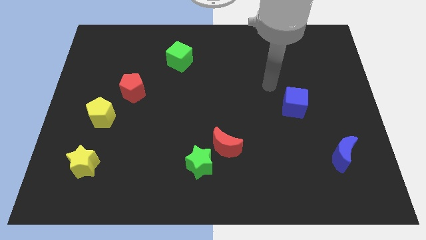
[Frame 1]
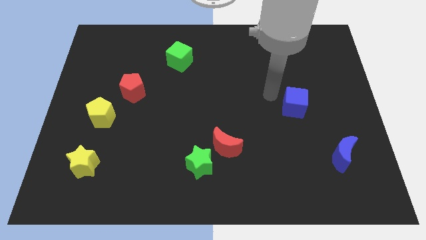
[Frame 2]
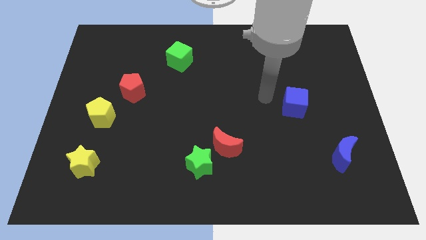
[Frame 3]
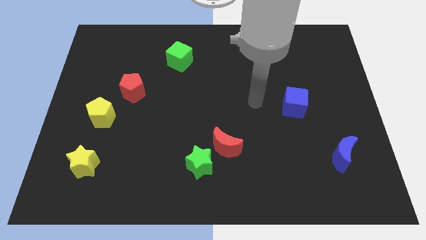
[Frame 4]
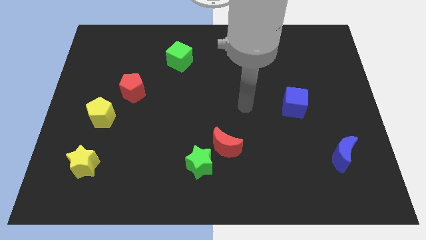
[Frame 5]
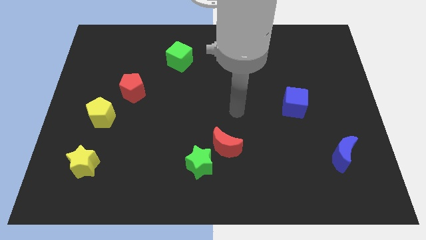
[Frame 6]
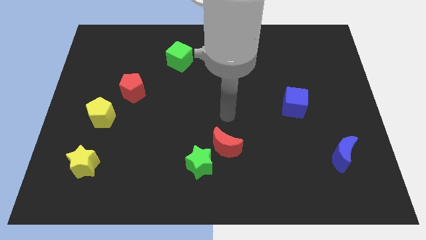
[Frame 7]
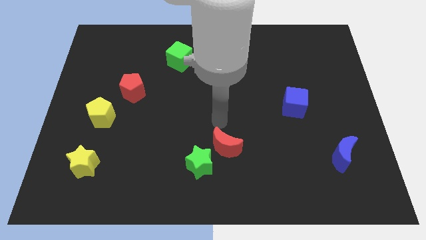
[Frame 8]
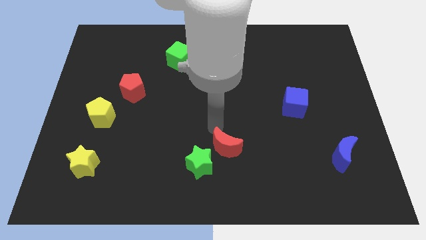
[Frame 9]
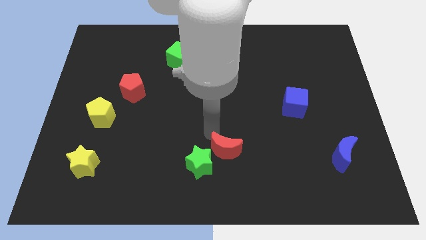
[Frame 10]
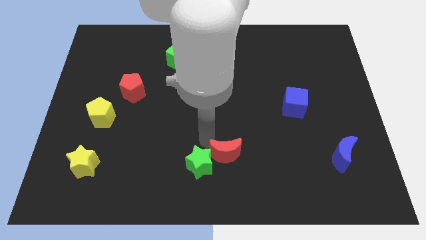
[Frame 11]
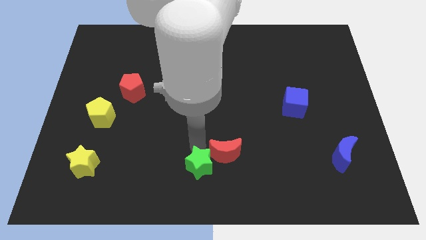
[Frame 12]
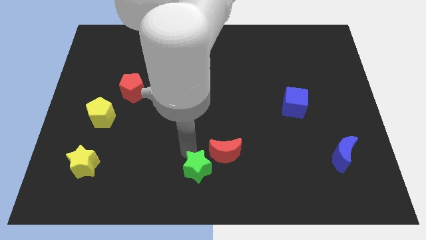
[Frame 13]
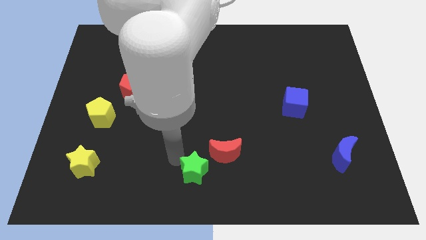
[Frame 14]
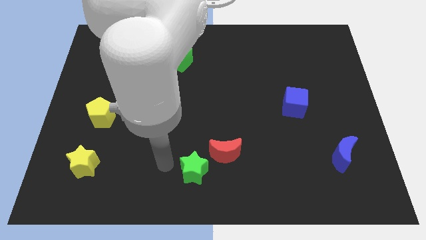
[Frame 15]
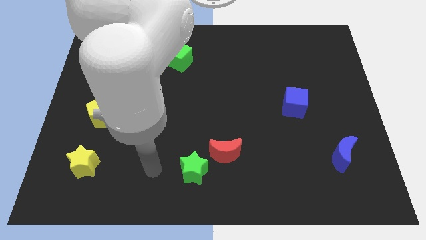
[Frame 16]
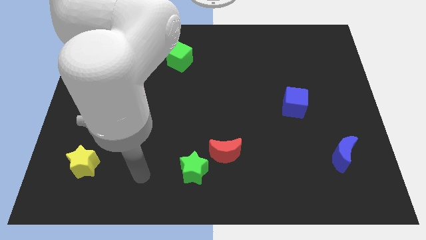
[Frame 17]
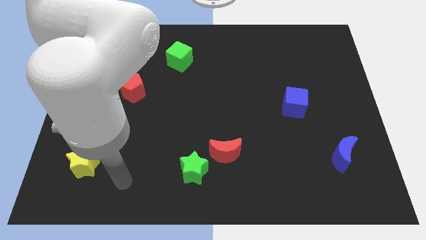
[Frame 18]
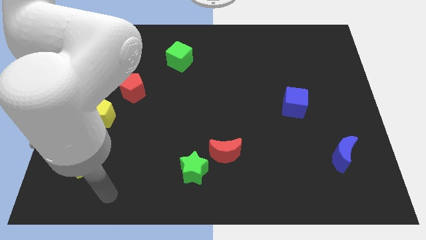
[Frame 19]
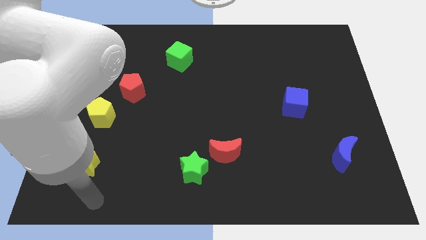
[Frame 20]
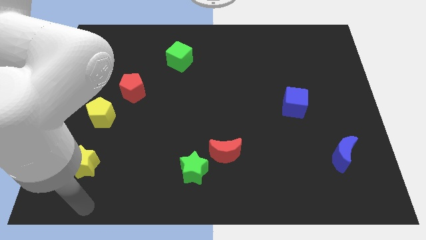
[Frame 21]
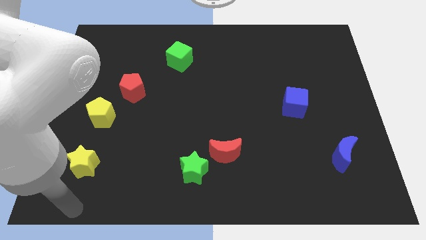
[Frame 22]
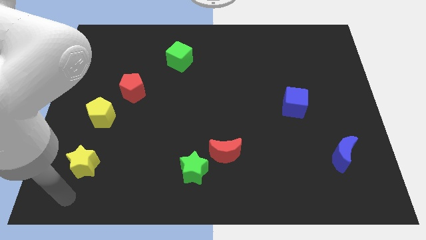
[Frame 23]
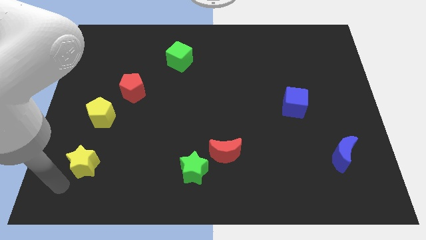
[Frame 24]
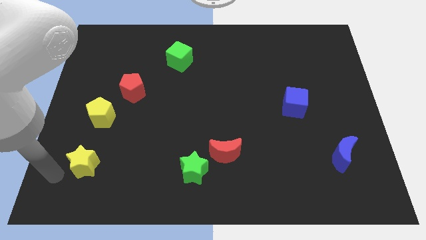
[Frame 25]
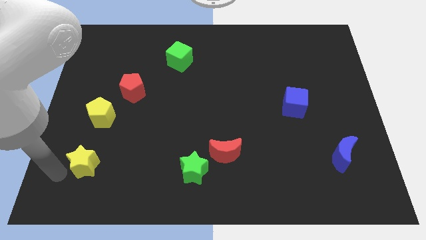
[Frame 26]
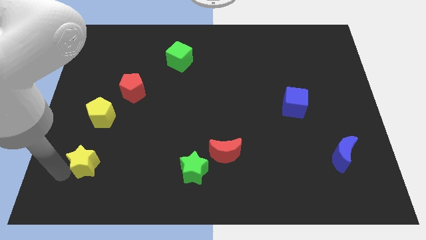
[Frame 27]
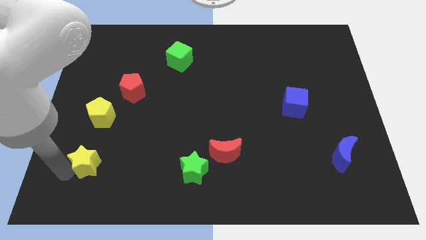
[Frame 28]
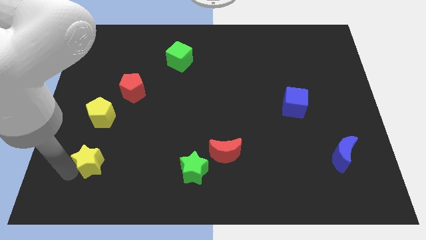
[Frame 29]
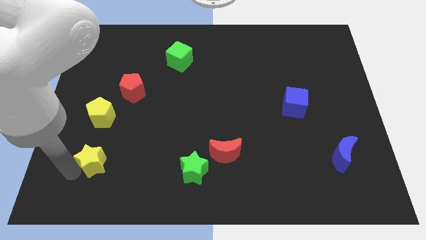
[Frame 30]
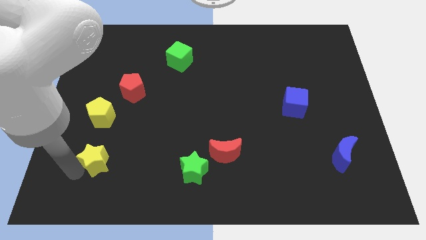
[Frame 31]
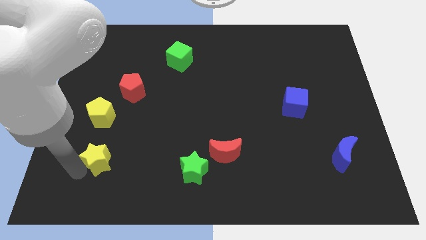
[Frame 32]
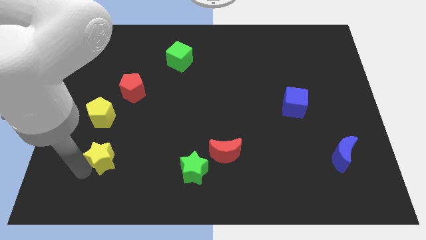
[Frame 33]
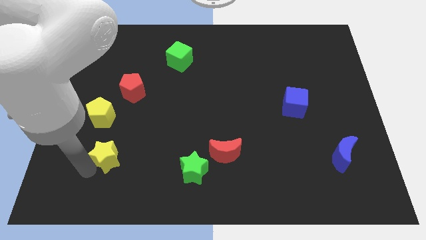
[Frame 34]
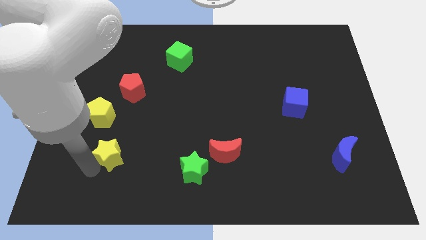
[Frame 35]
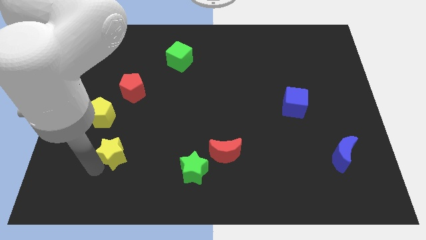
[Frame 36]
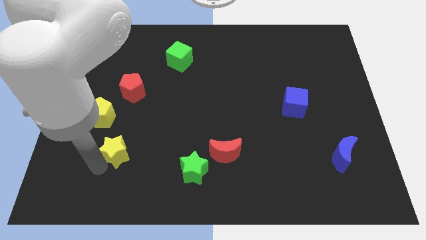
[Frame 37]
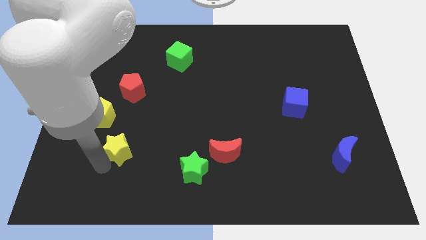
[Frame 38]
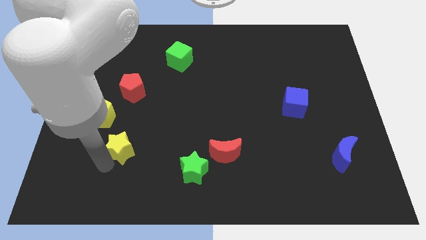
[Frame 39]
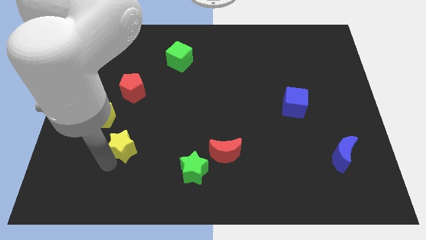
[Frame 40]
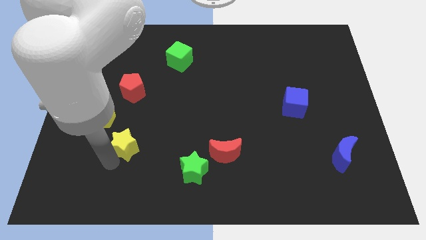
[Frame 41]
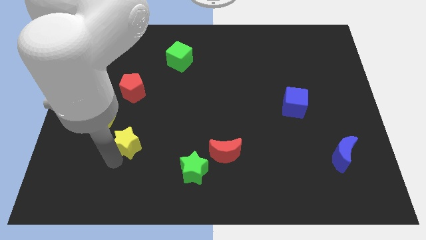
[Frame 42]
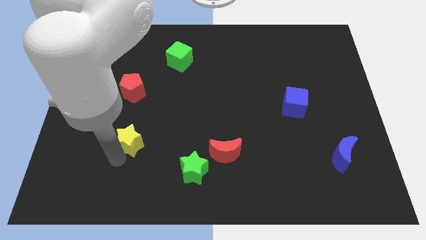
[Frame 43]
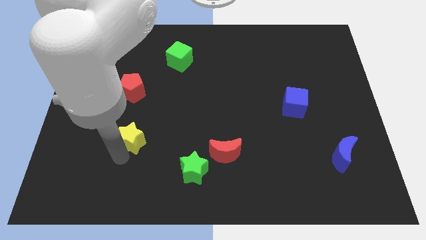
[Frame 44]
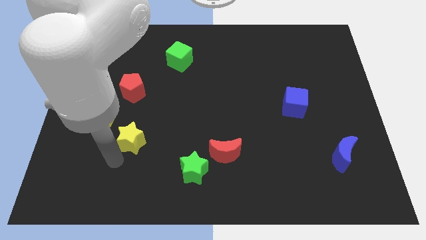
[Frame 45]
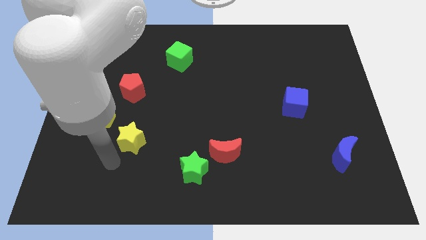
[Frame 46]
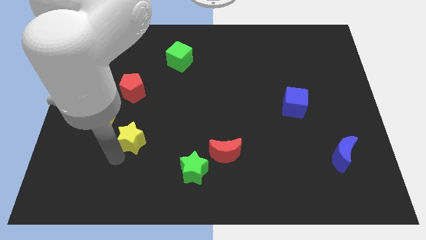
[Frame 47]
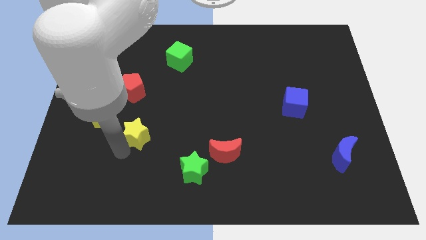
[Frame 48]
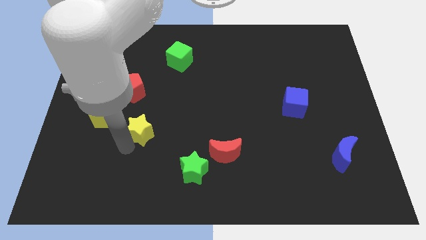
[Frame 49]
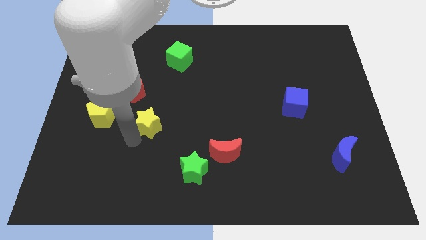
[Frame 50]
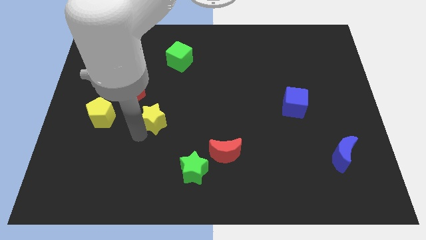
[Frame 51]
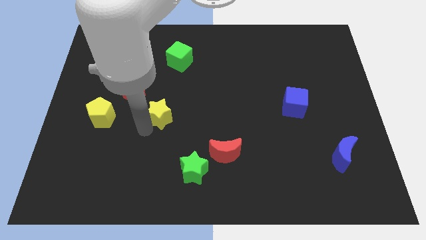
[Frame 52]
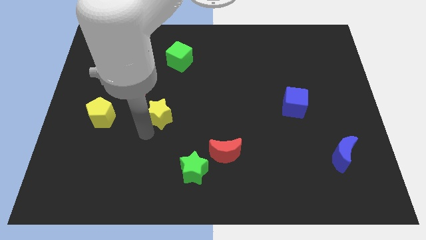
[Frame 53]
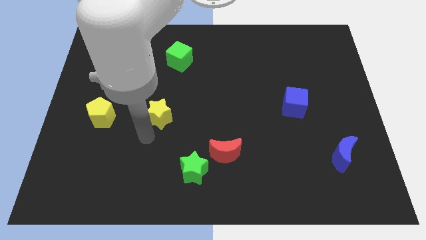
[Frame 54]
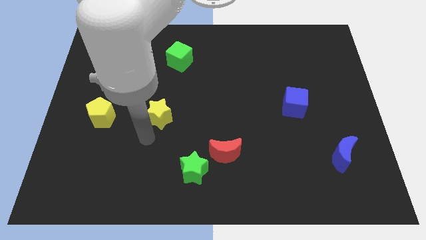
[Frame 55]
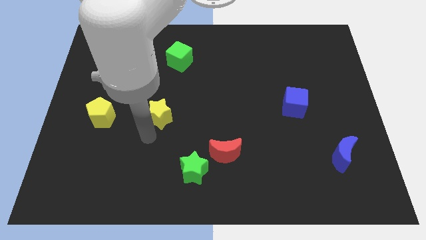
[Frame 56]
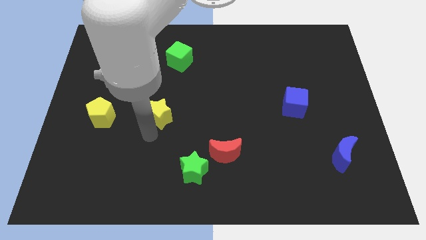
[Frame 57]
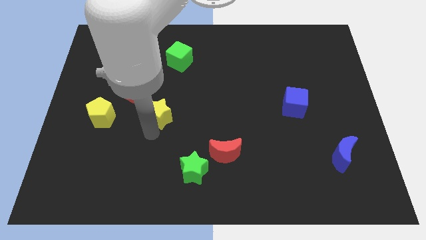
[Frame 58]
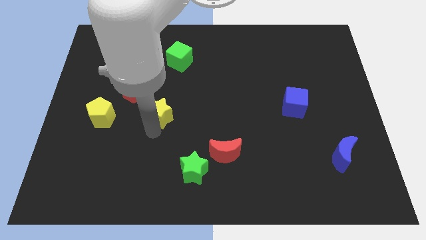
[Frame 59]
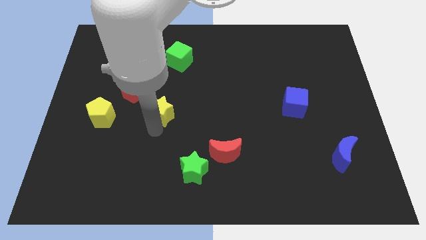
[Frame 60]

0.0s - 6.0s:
push the yellow star up and right diagonally

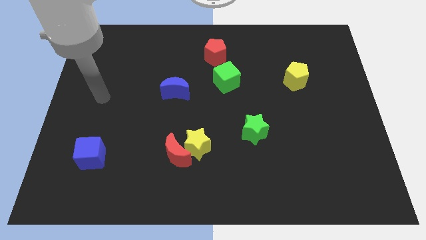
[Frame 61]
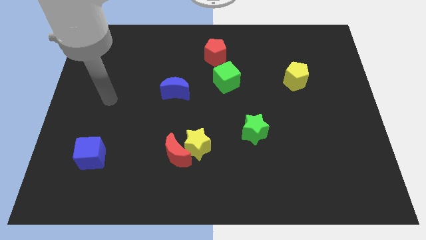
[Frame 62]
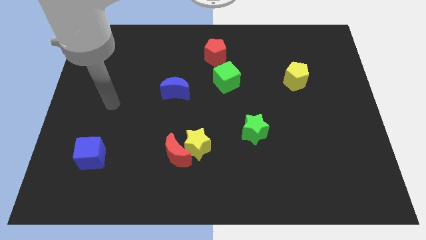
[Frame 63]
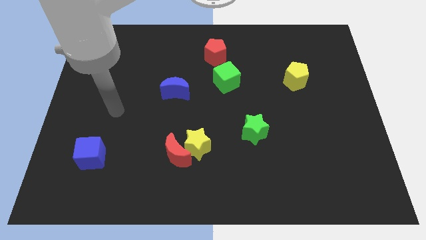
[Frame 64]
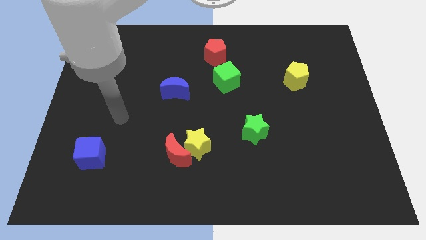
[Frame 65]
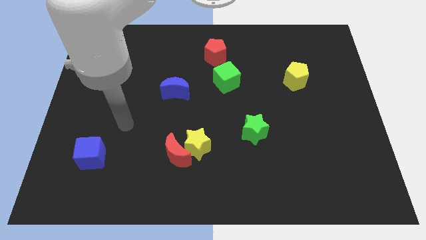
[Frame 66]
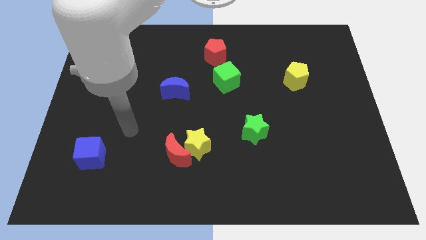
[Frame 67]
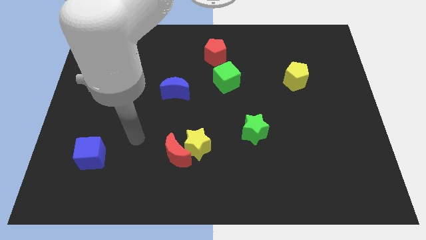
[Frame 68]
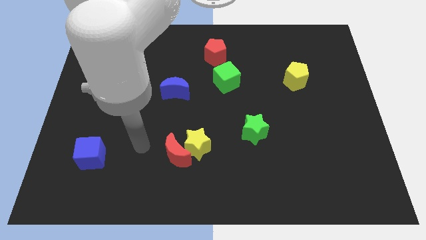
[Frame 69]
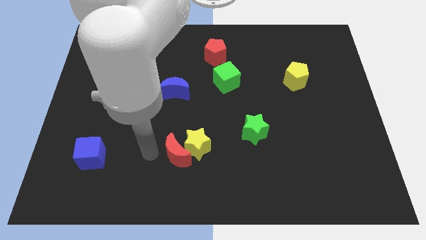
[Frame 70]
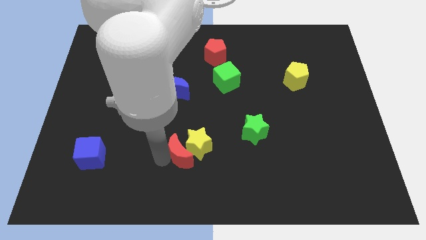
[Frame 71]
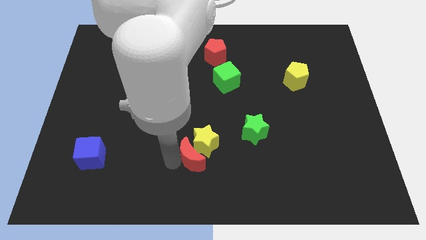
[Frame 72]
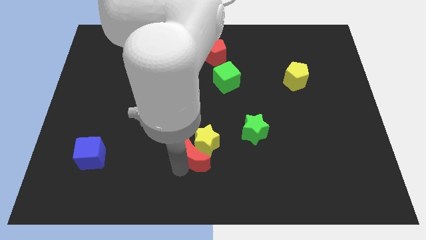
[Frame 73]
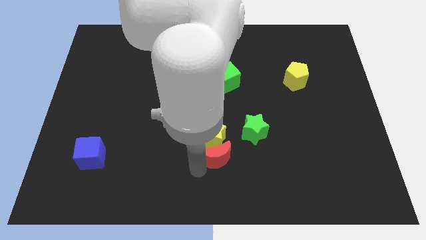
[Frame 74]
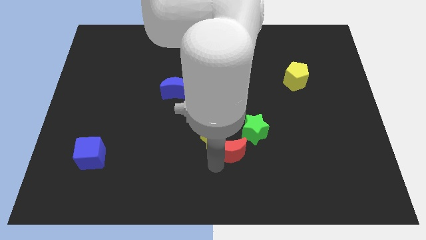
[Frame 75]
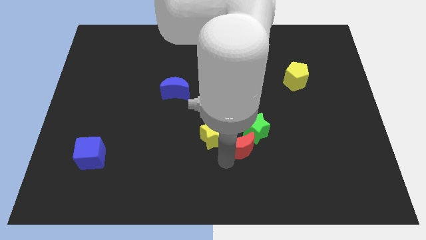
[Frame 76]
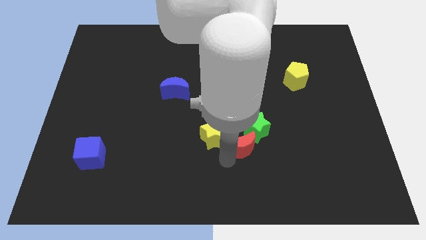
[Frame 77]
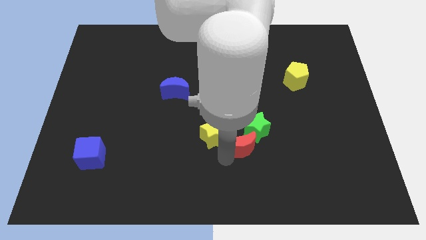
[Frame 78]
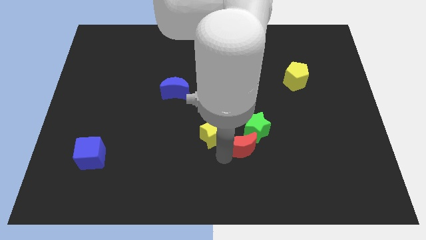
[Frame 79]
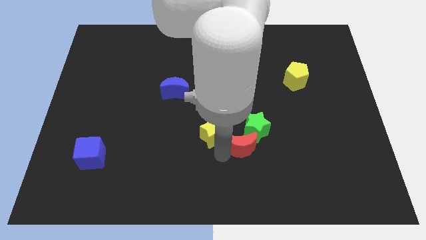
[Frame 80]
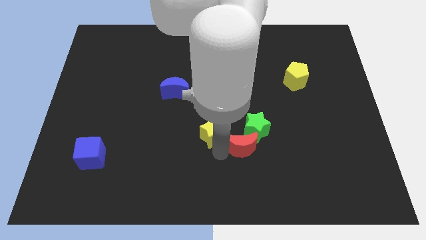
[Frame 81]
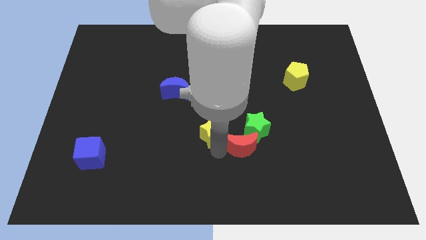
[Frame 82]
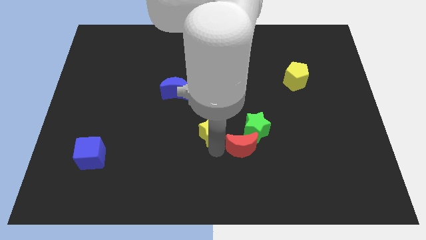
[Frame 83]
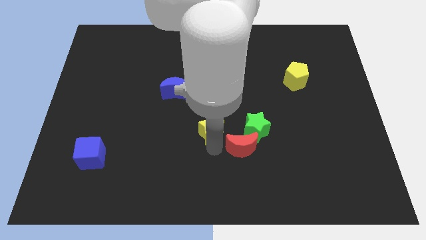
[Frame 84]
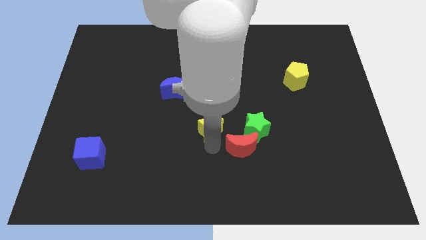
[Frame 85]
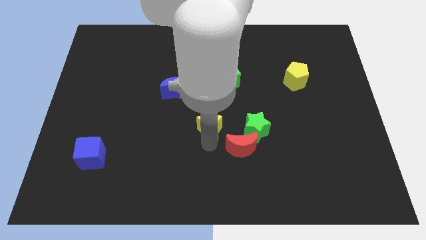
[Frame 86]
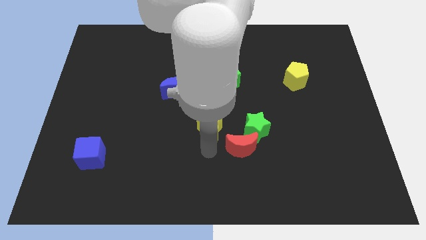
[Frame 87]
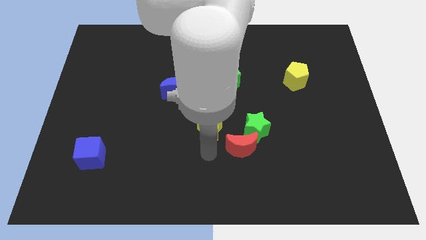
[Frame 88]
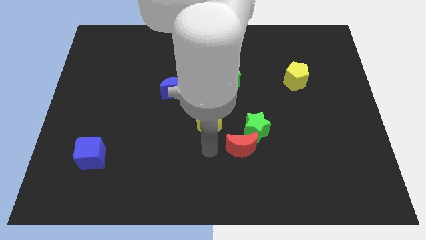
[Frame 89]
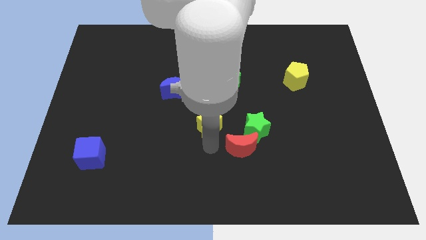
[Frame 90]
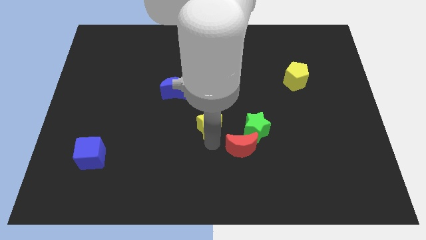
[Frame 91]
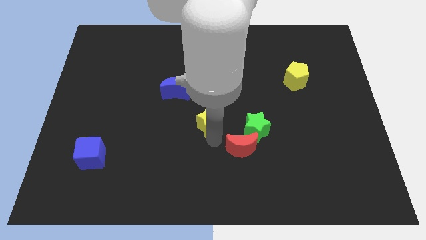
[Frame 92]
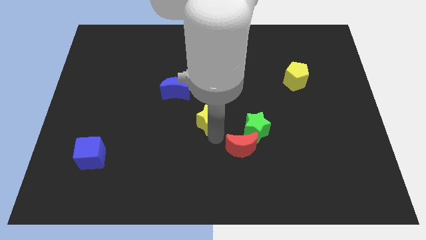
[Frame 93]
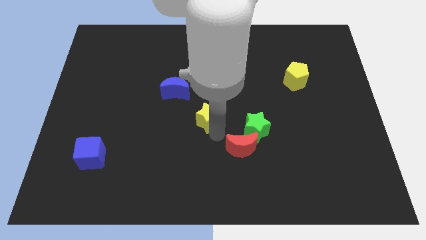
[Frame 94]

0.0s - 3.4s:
slightly push the yellow star upwards
